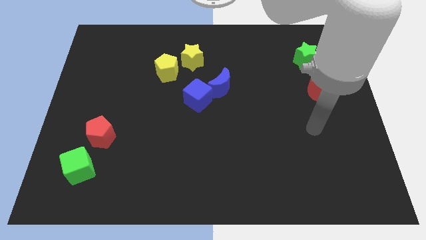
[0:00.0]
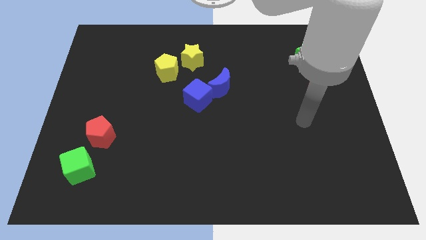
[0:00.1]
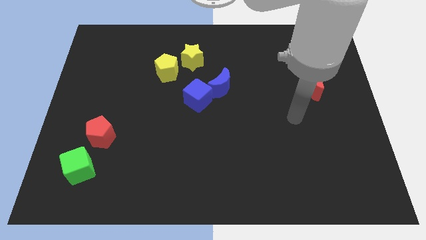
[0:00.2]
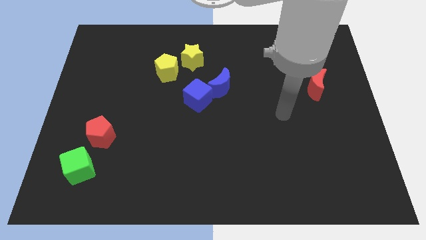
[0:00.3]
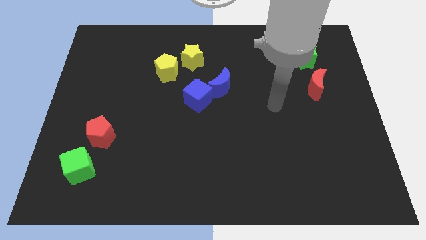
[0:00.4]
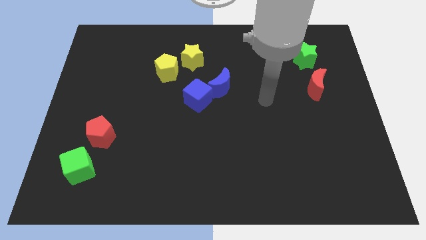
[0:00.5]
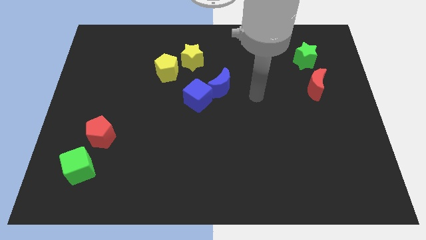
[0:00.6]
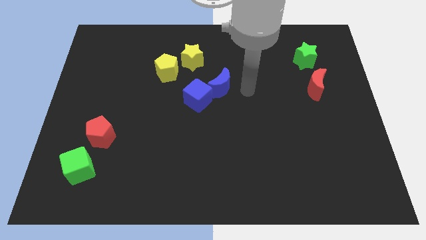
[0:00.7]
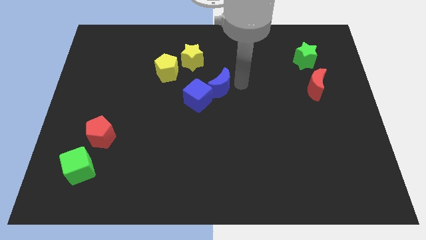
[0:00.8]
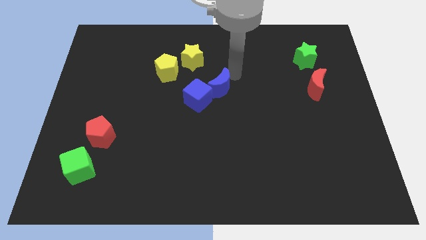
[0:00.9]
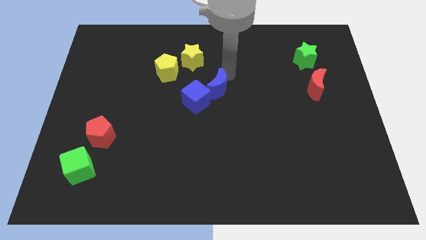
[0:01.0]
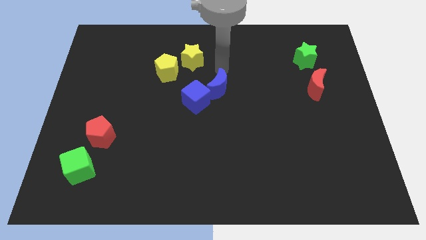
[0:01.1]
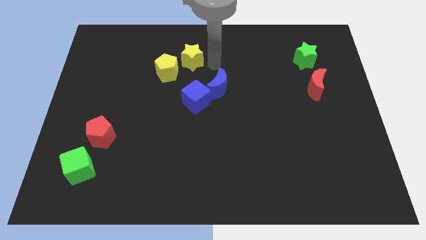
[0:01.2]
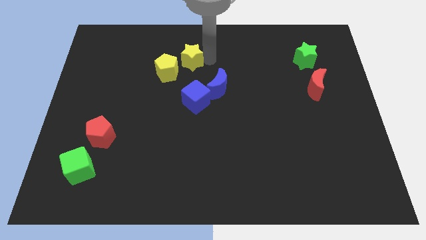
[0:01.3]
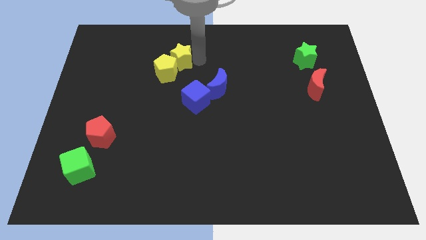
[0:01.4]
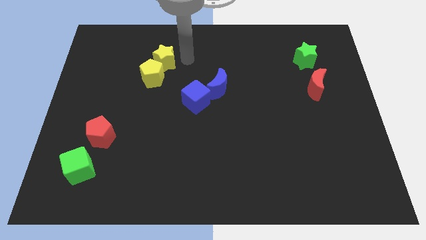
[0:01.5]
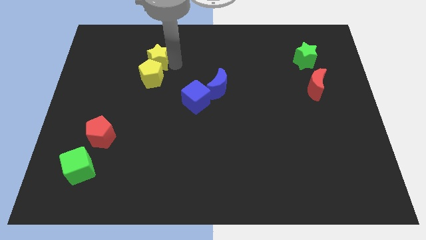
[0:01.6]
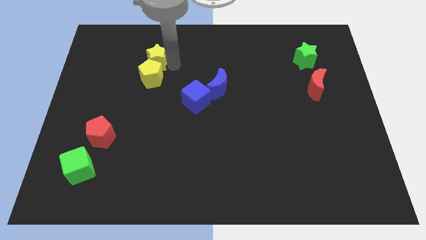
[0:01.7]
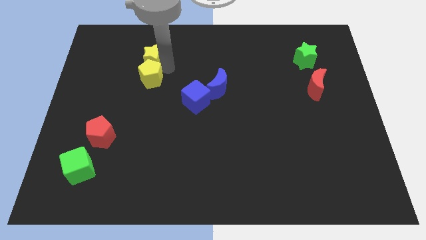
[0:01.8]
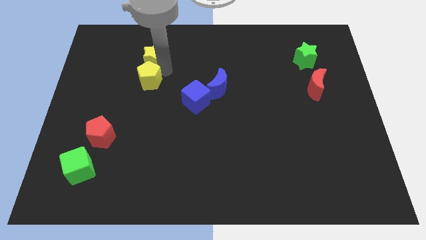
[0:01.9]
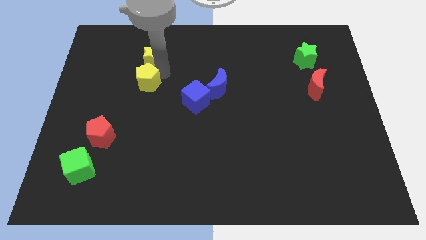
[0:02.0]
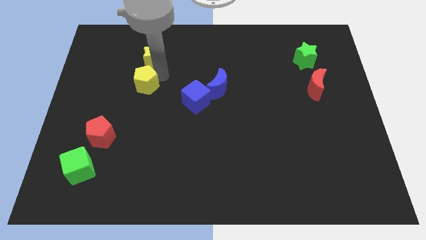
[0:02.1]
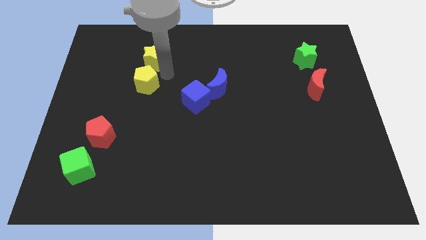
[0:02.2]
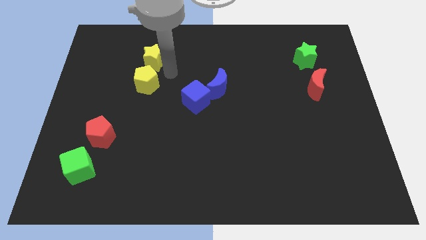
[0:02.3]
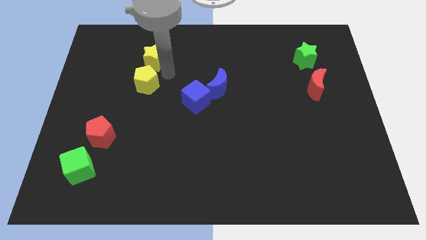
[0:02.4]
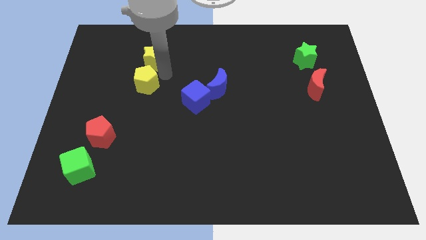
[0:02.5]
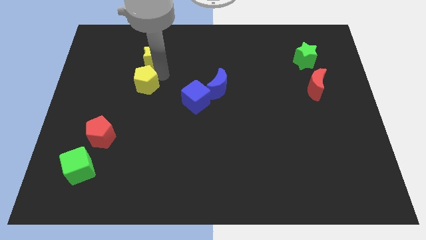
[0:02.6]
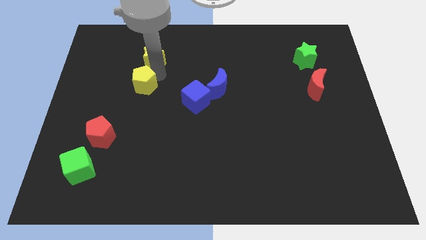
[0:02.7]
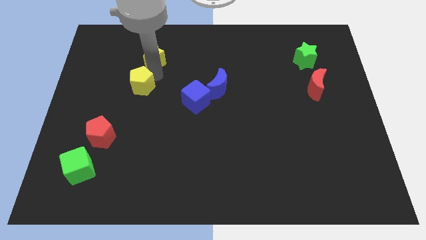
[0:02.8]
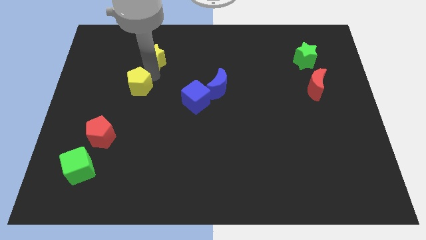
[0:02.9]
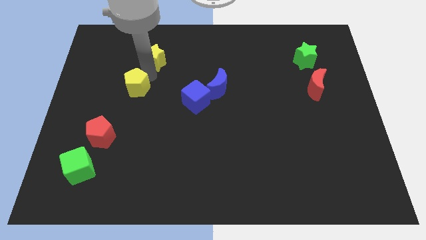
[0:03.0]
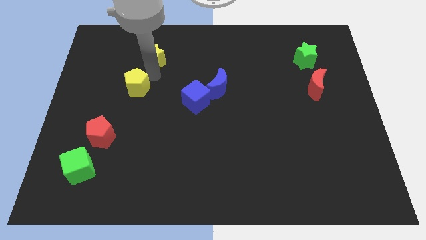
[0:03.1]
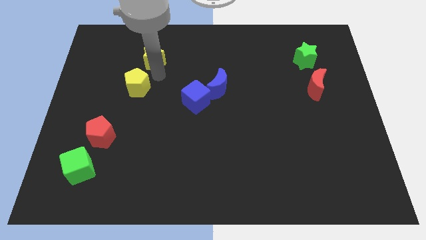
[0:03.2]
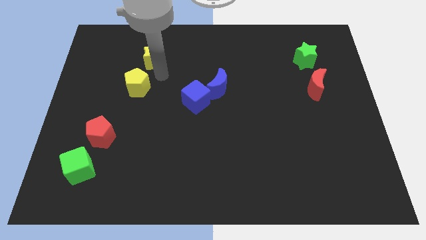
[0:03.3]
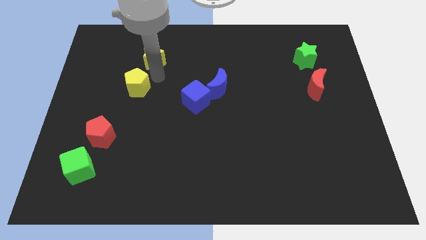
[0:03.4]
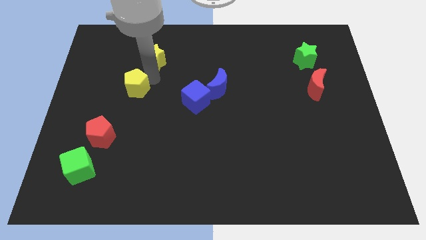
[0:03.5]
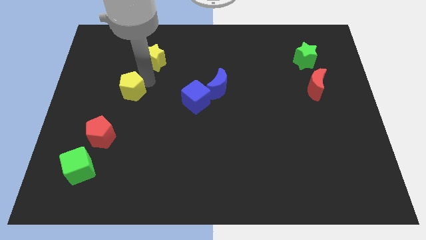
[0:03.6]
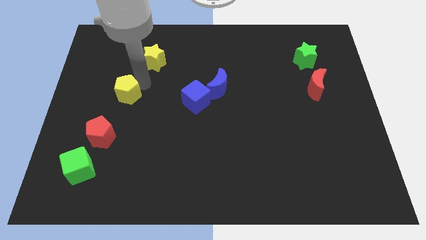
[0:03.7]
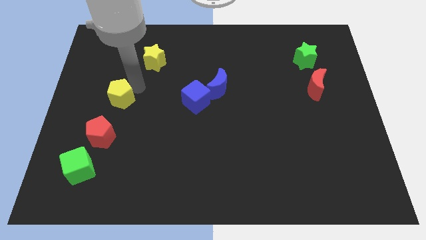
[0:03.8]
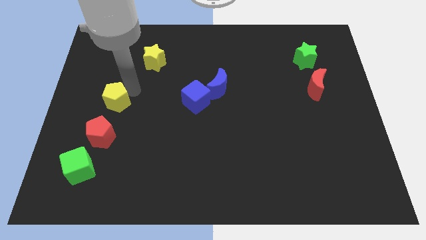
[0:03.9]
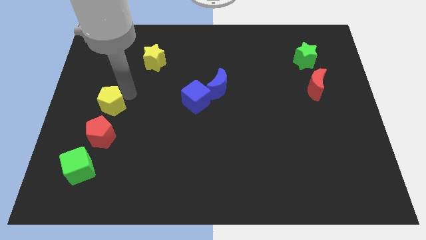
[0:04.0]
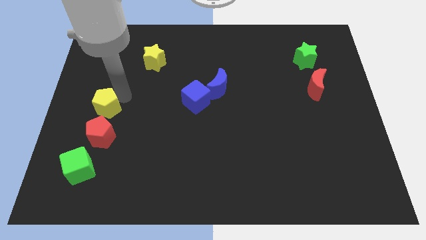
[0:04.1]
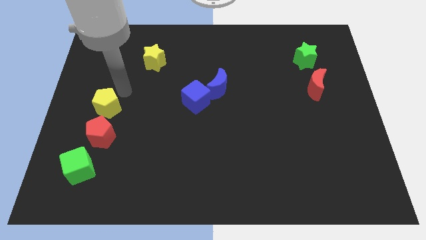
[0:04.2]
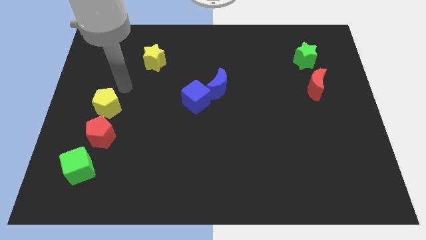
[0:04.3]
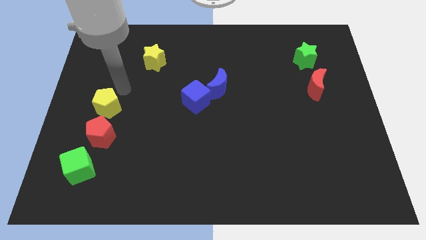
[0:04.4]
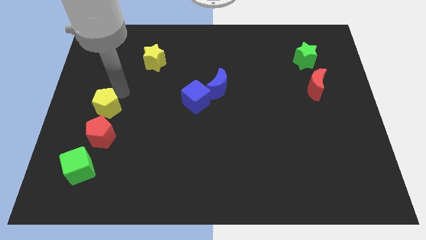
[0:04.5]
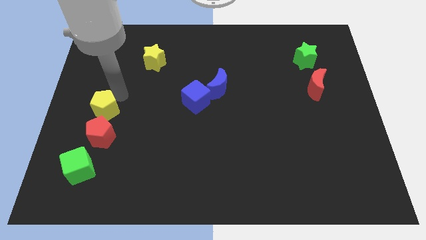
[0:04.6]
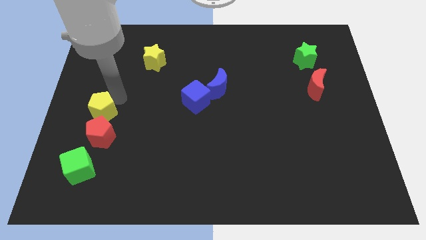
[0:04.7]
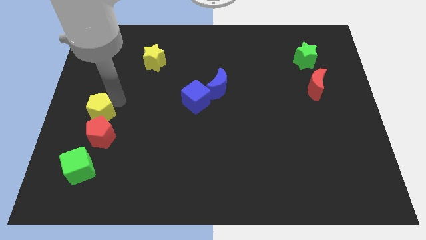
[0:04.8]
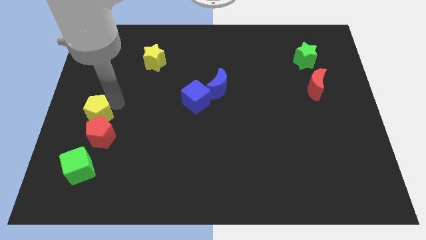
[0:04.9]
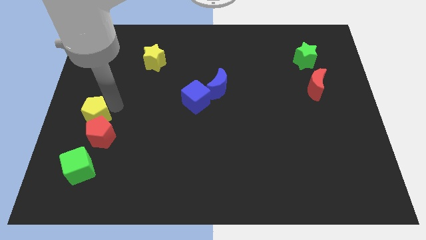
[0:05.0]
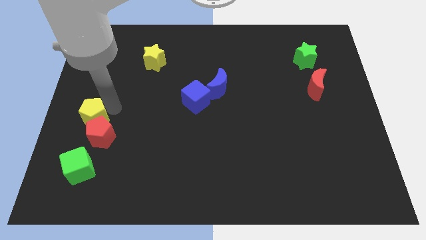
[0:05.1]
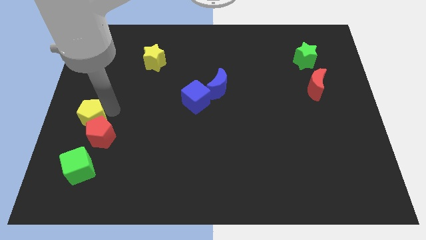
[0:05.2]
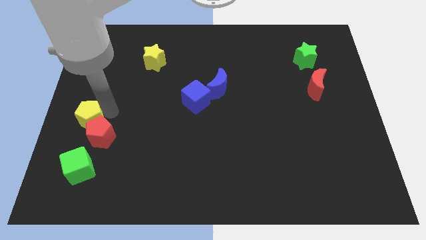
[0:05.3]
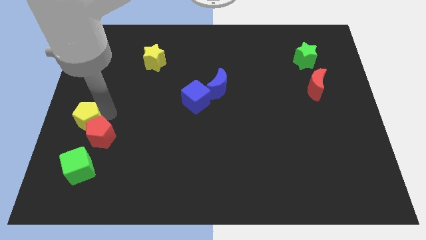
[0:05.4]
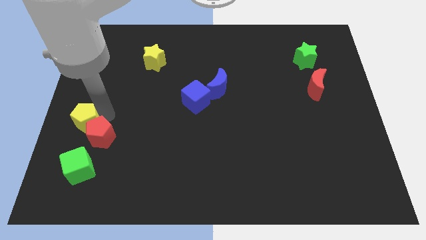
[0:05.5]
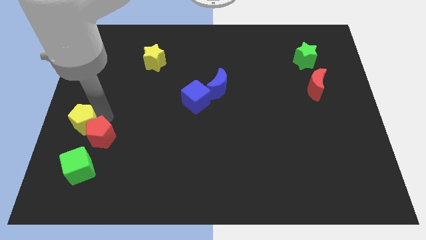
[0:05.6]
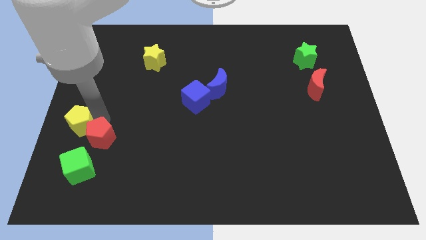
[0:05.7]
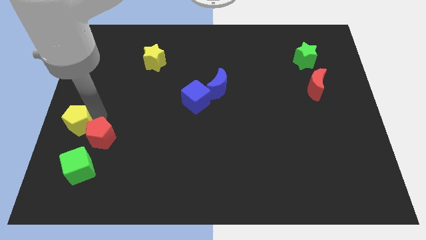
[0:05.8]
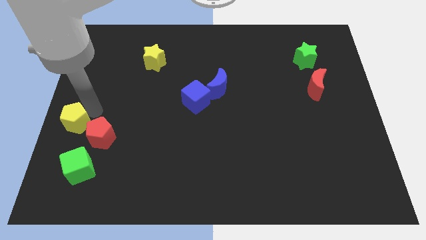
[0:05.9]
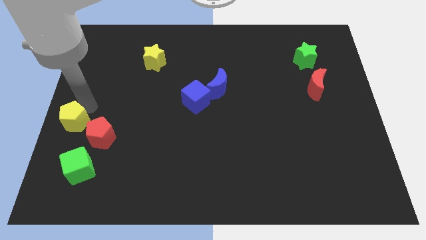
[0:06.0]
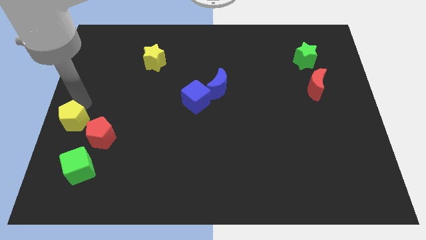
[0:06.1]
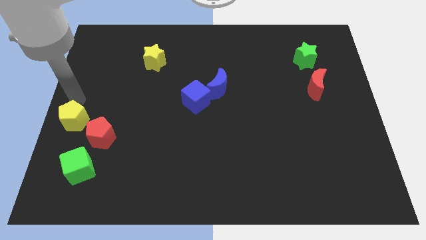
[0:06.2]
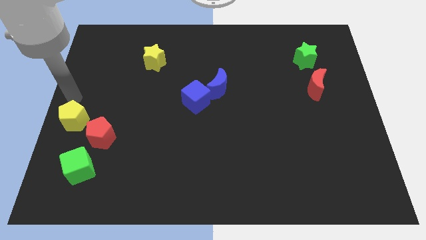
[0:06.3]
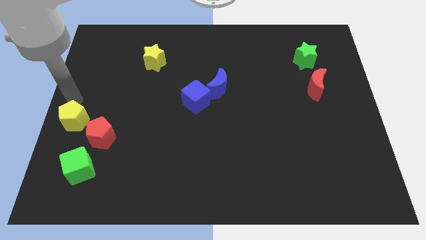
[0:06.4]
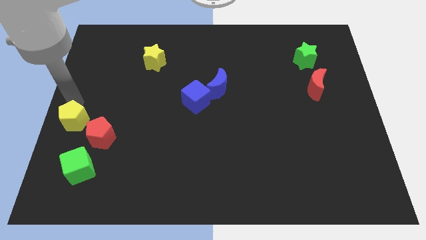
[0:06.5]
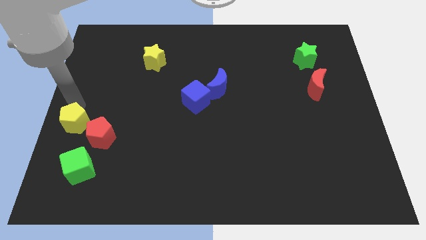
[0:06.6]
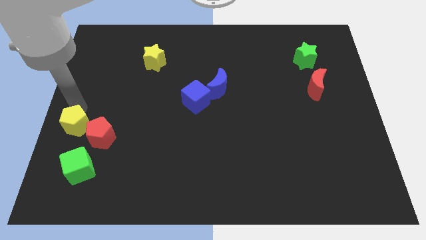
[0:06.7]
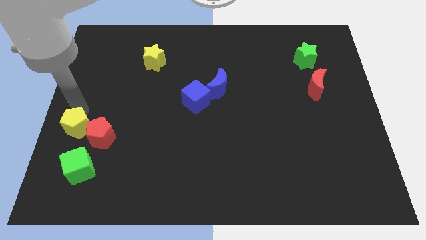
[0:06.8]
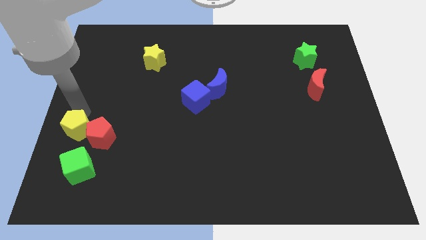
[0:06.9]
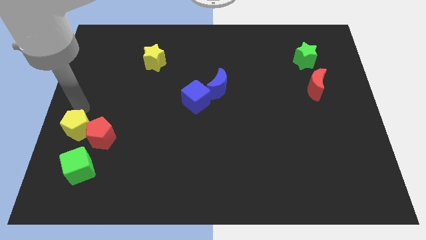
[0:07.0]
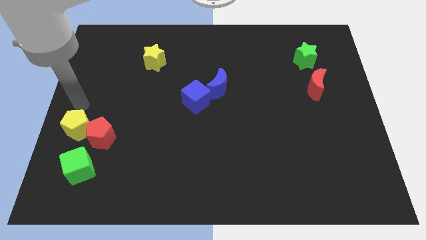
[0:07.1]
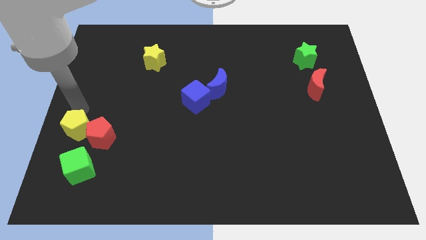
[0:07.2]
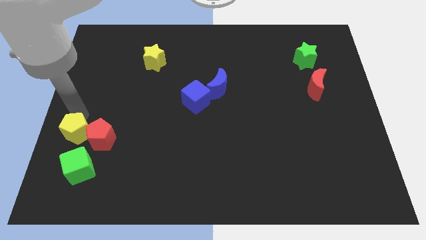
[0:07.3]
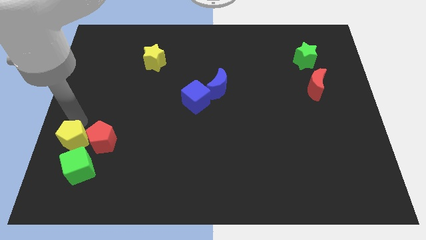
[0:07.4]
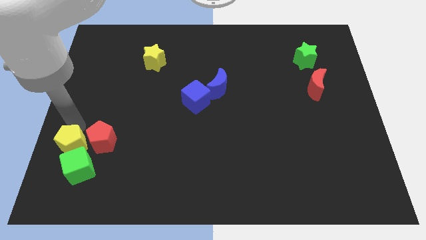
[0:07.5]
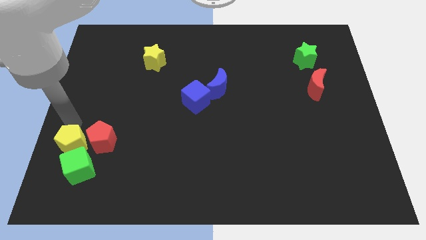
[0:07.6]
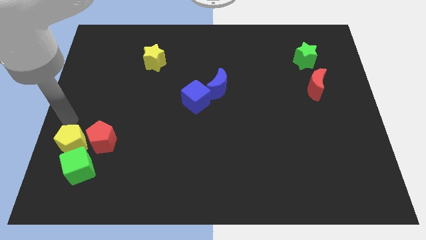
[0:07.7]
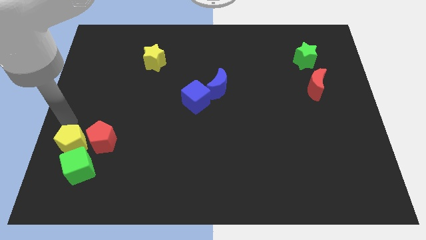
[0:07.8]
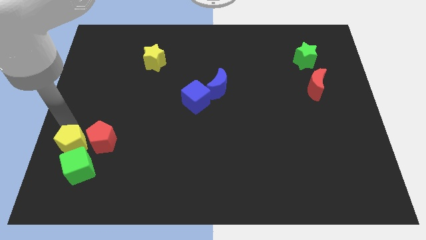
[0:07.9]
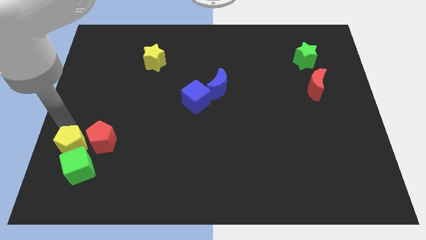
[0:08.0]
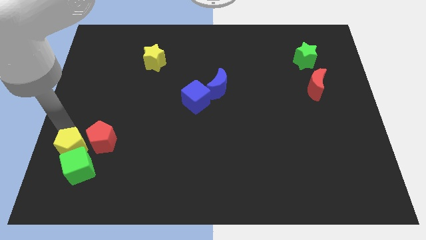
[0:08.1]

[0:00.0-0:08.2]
move the yellow pentagon next to the green cube

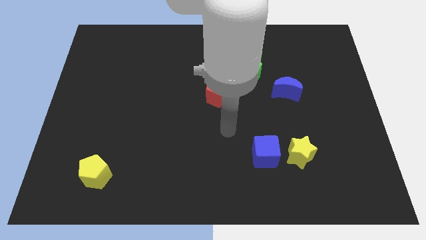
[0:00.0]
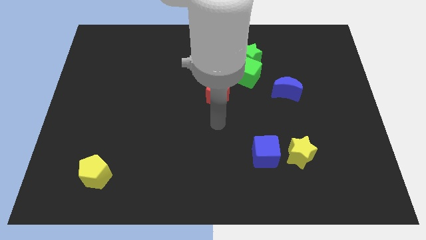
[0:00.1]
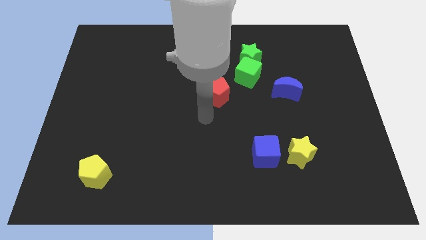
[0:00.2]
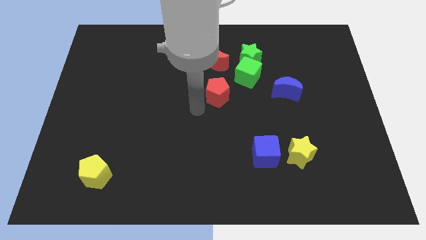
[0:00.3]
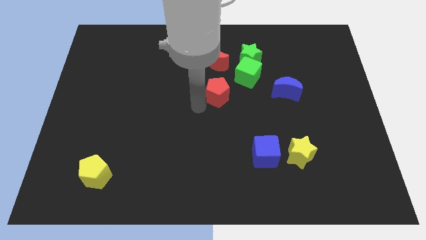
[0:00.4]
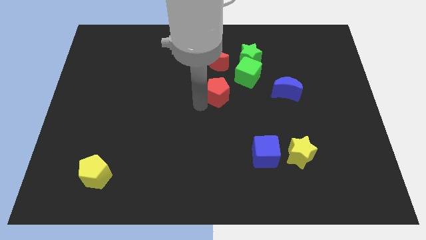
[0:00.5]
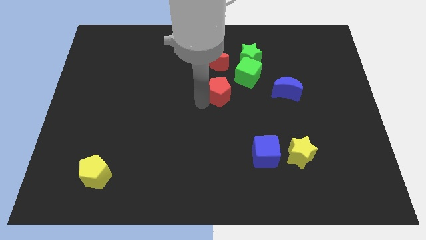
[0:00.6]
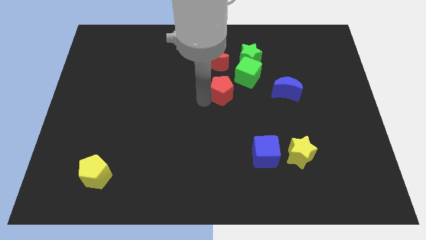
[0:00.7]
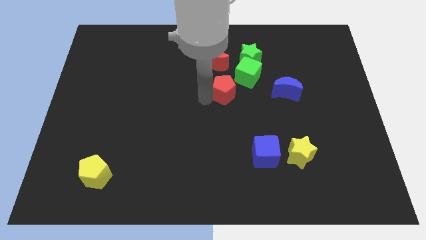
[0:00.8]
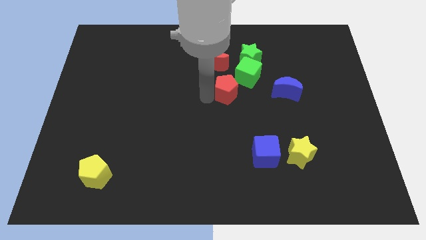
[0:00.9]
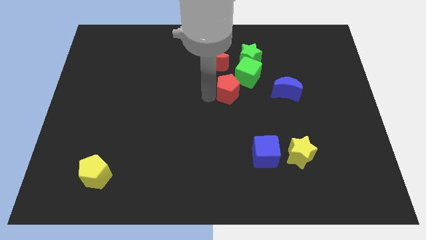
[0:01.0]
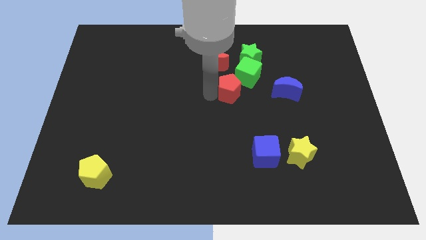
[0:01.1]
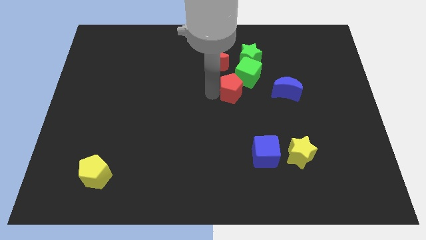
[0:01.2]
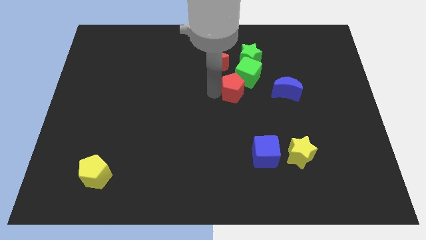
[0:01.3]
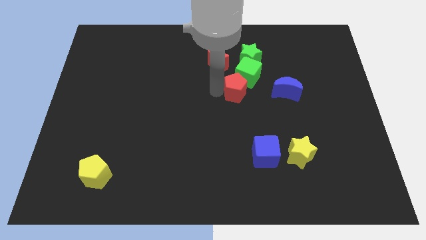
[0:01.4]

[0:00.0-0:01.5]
slide the red pentagon next to the green cube
